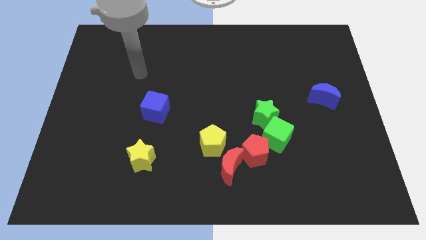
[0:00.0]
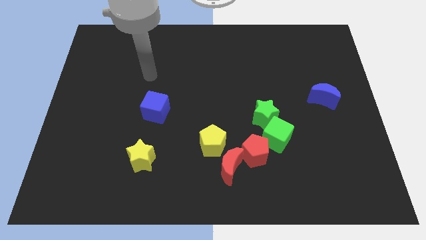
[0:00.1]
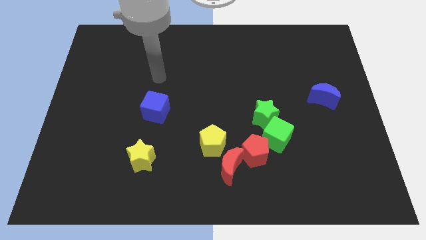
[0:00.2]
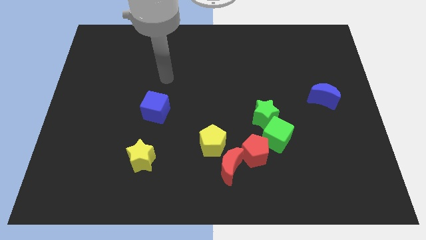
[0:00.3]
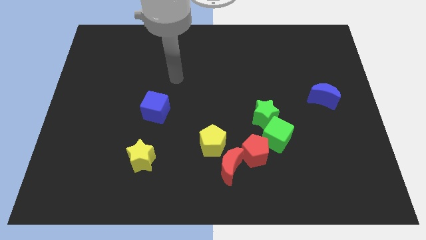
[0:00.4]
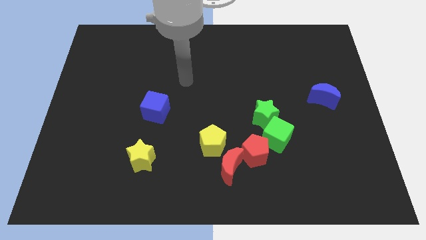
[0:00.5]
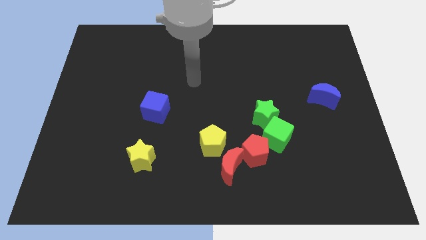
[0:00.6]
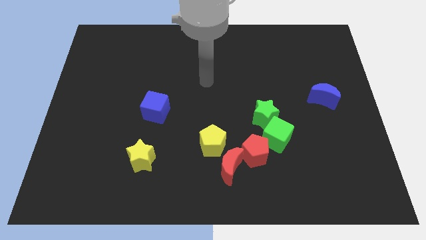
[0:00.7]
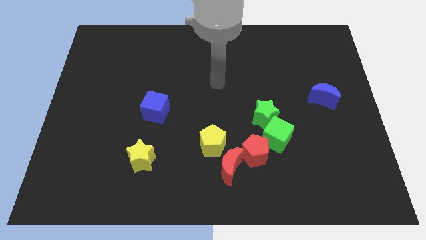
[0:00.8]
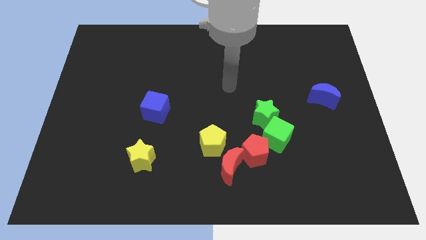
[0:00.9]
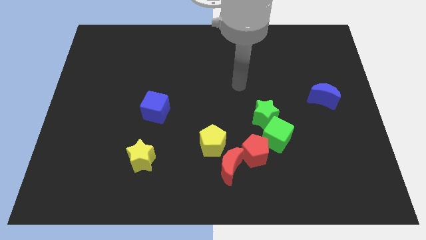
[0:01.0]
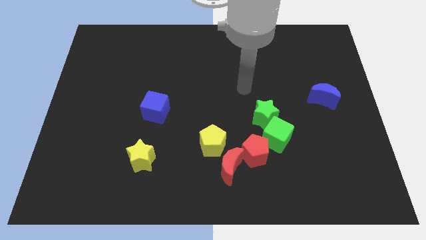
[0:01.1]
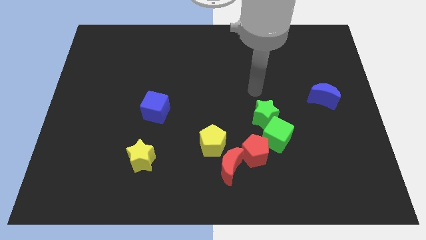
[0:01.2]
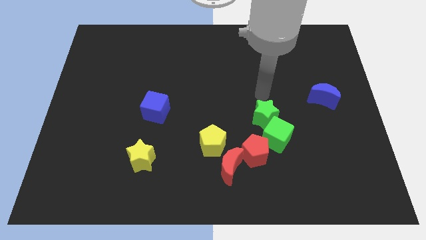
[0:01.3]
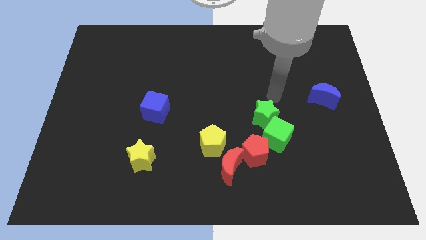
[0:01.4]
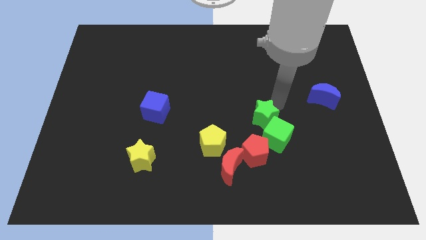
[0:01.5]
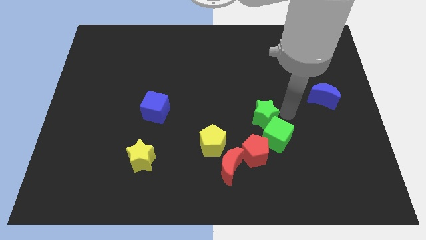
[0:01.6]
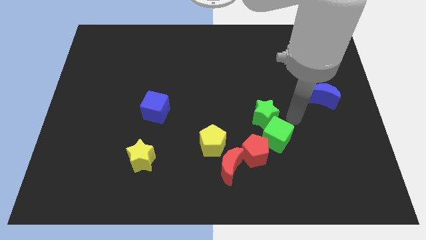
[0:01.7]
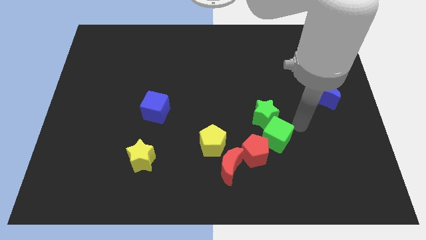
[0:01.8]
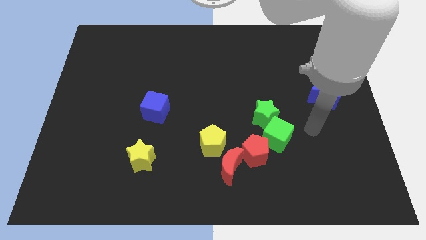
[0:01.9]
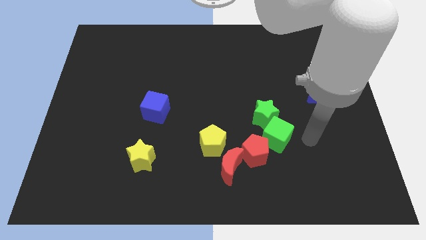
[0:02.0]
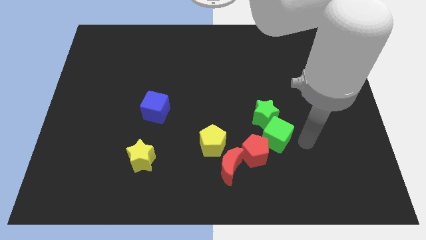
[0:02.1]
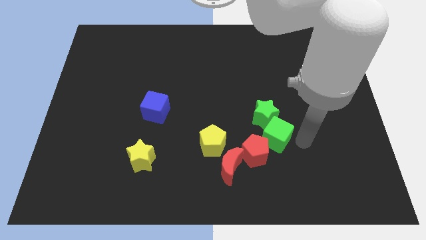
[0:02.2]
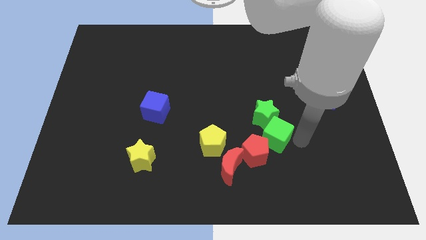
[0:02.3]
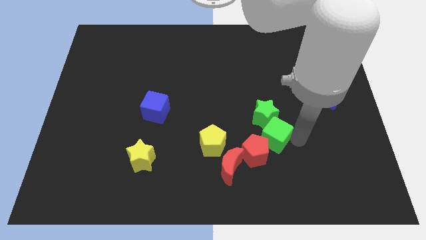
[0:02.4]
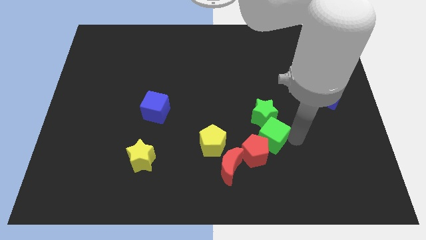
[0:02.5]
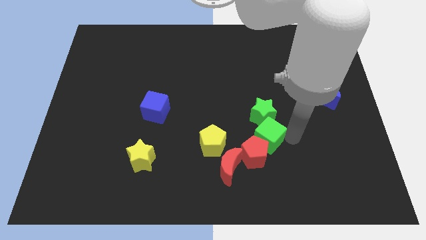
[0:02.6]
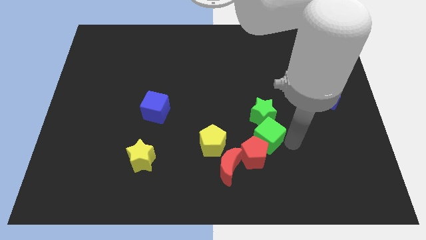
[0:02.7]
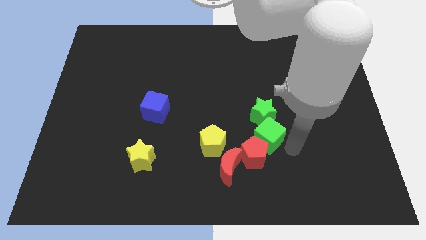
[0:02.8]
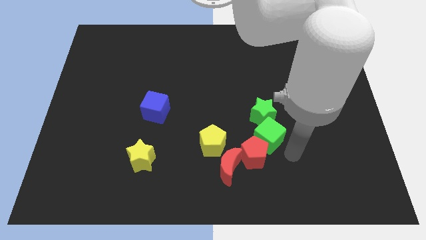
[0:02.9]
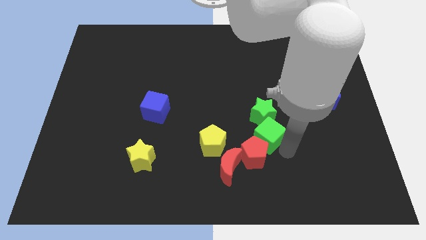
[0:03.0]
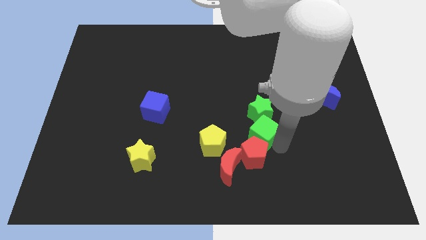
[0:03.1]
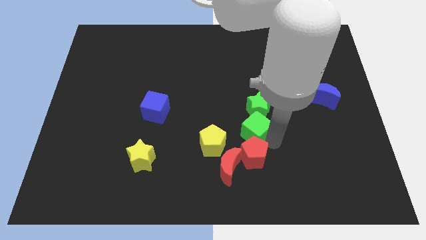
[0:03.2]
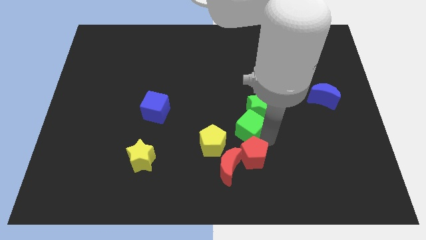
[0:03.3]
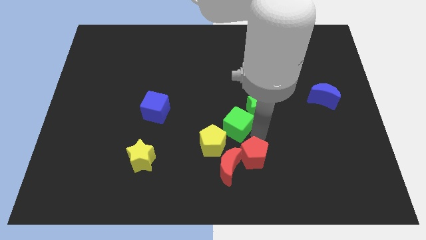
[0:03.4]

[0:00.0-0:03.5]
slightly move the green cube upwards and then left

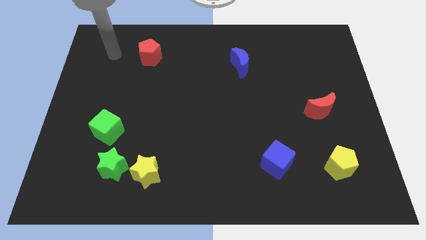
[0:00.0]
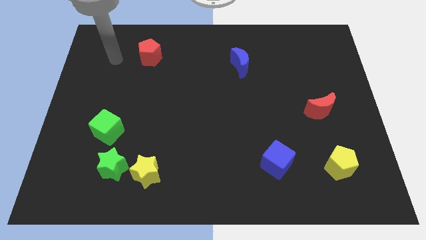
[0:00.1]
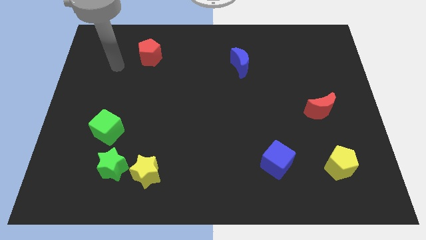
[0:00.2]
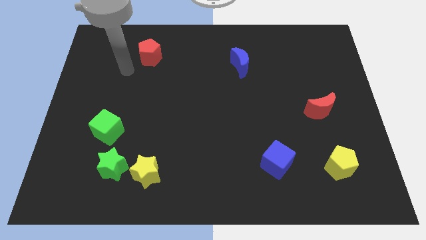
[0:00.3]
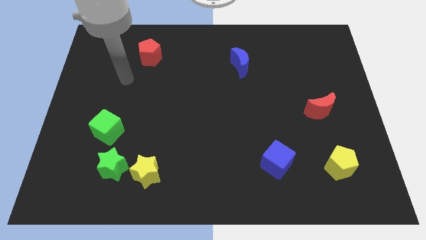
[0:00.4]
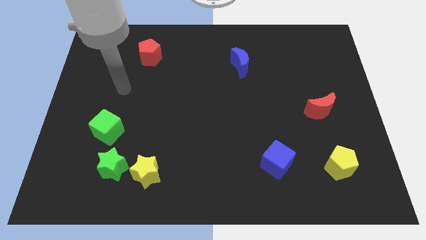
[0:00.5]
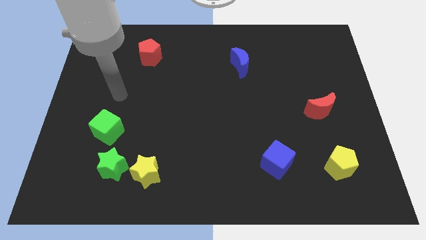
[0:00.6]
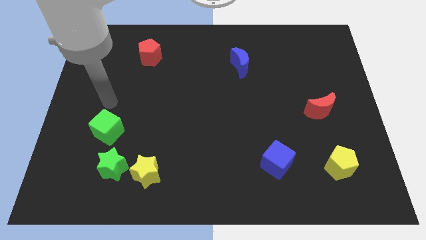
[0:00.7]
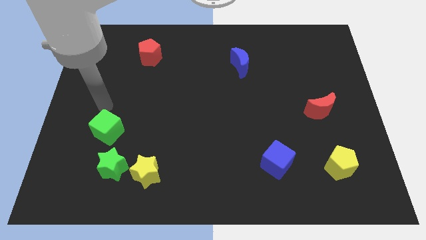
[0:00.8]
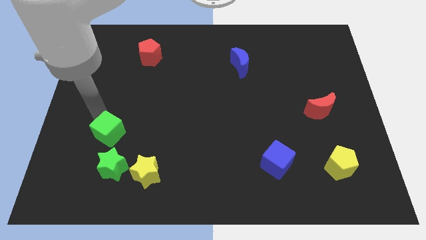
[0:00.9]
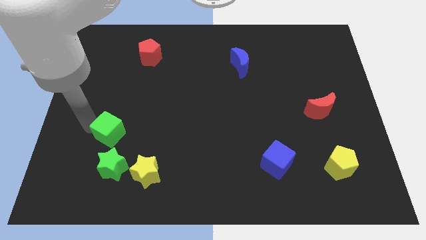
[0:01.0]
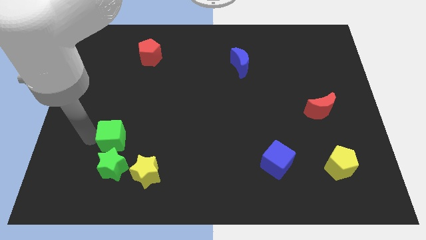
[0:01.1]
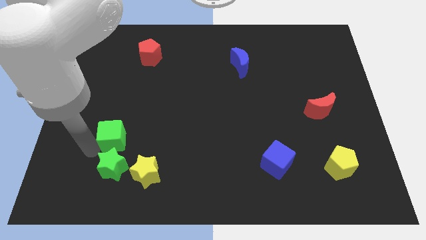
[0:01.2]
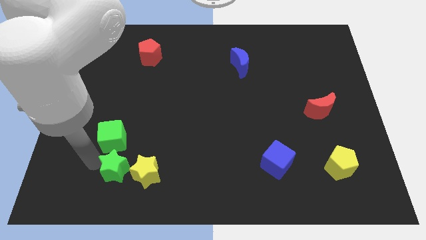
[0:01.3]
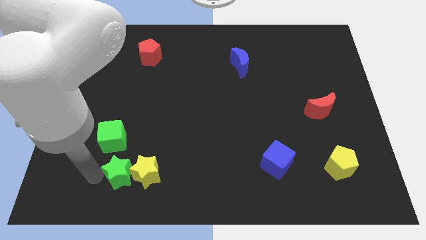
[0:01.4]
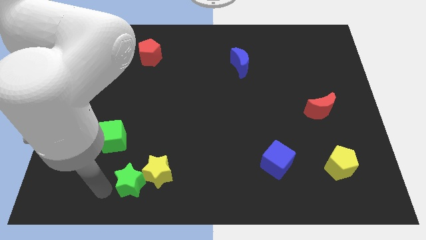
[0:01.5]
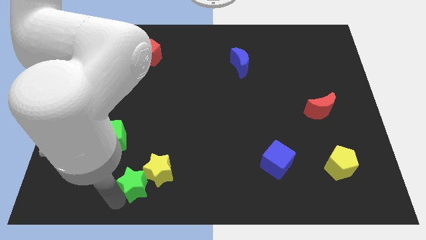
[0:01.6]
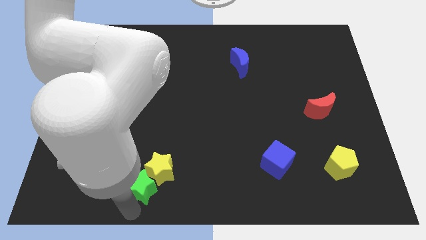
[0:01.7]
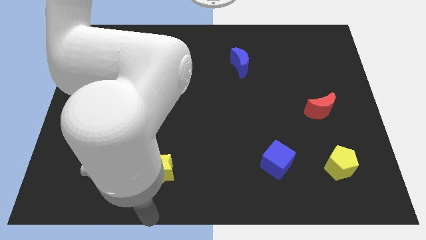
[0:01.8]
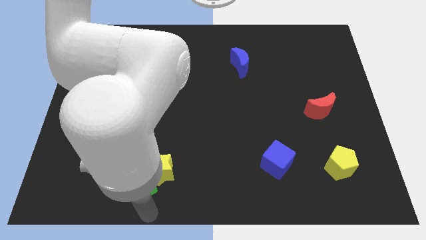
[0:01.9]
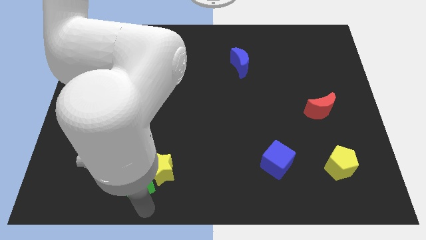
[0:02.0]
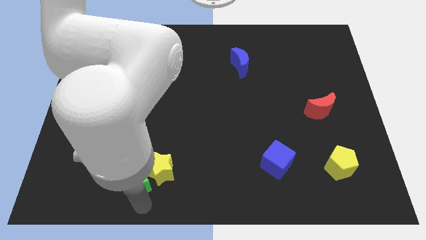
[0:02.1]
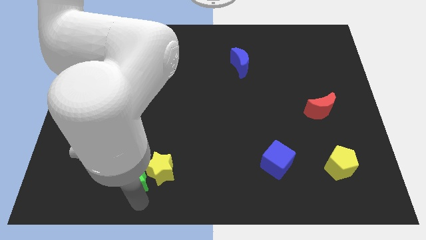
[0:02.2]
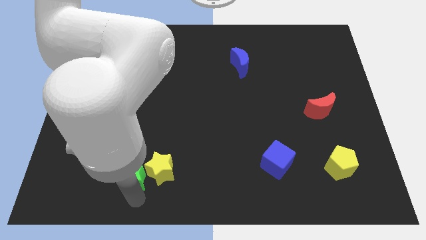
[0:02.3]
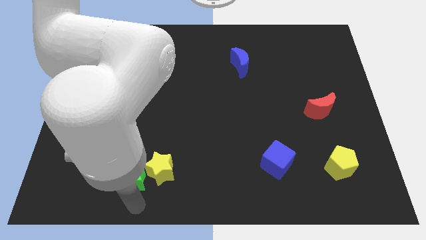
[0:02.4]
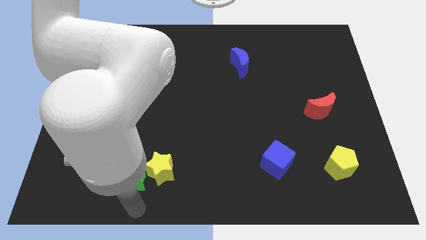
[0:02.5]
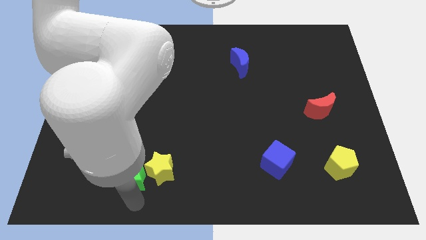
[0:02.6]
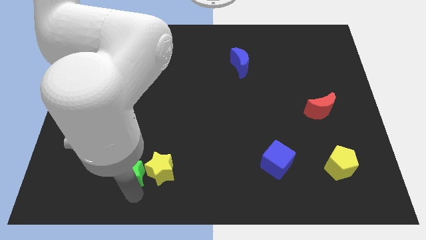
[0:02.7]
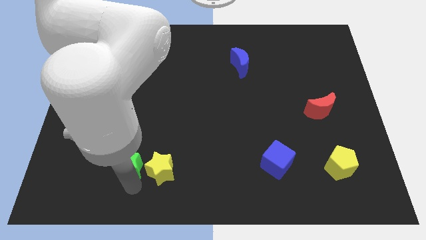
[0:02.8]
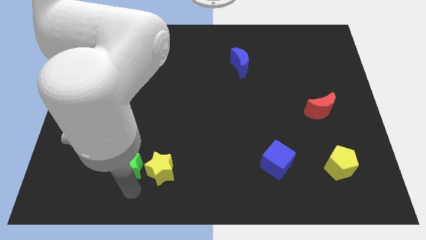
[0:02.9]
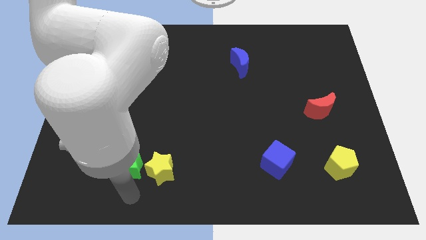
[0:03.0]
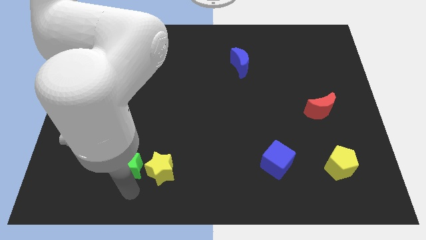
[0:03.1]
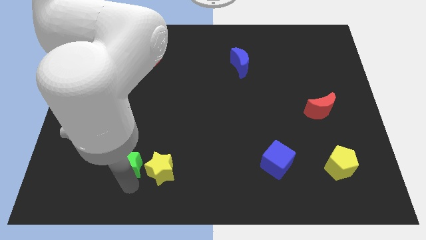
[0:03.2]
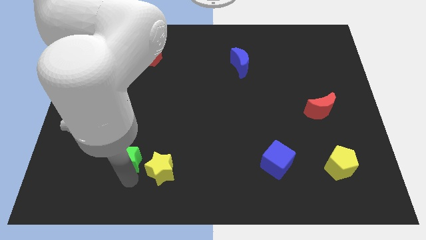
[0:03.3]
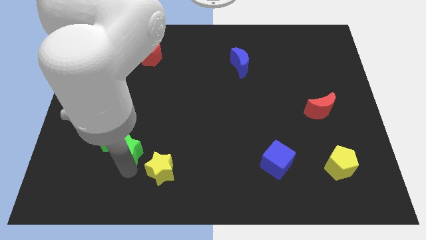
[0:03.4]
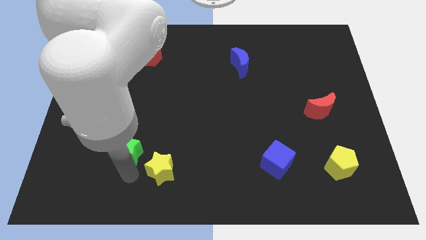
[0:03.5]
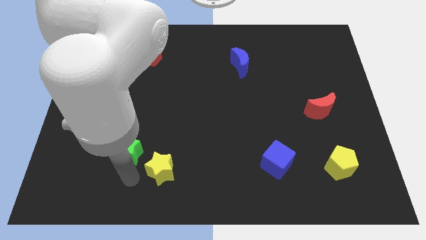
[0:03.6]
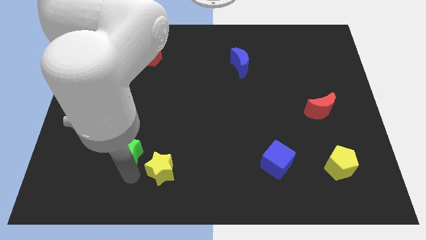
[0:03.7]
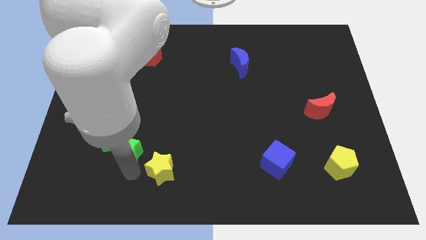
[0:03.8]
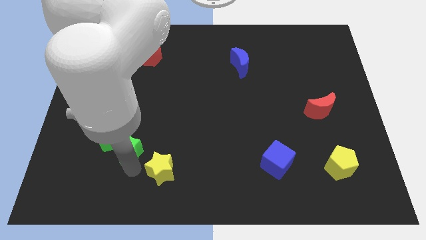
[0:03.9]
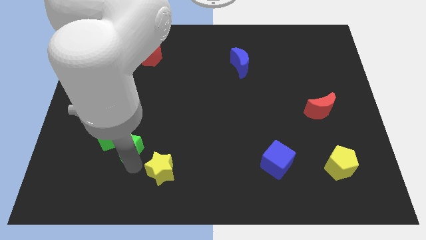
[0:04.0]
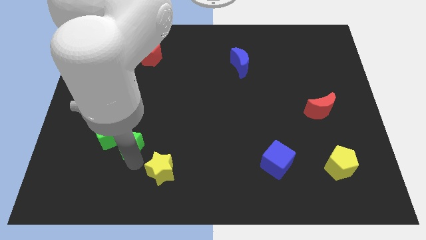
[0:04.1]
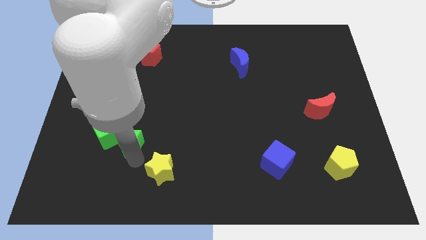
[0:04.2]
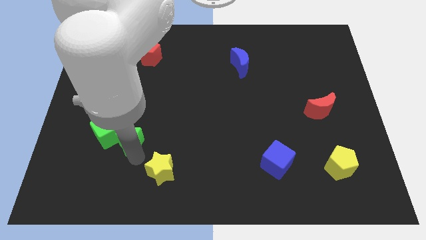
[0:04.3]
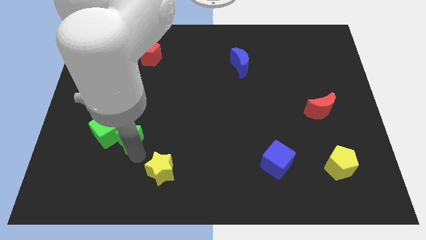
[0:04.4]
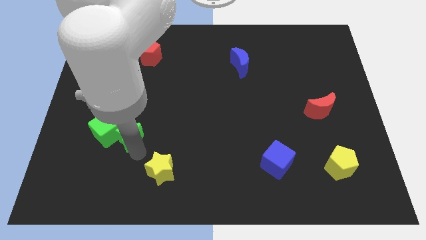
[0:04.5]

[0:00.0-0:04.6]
push the green star up a little bit

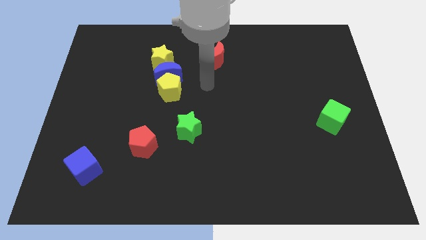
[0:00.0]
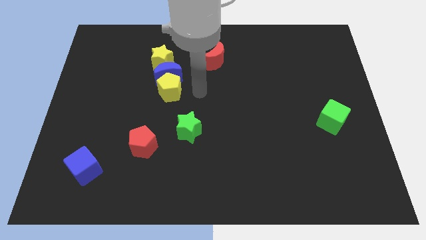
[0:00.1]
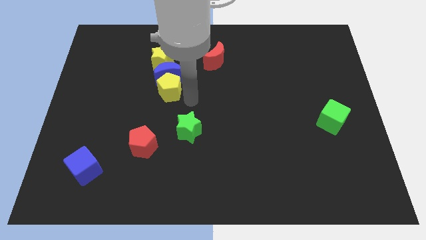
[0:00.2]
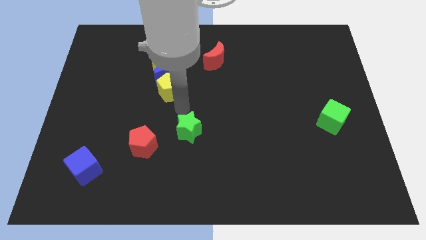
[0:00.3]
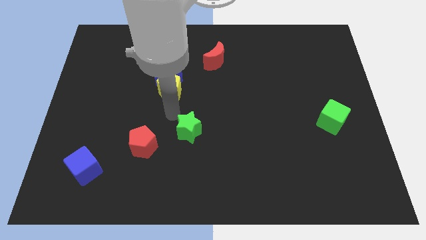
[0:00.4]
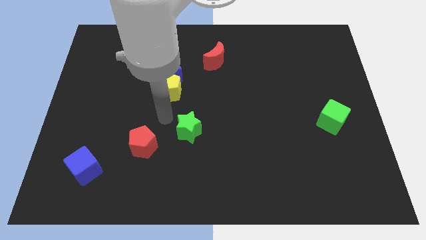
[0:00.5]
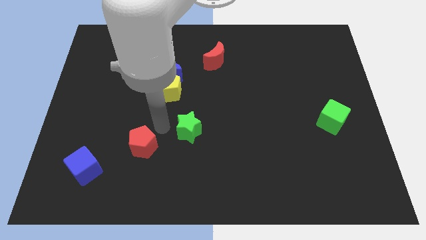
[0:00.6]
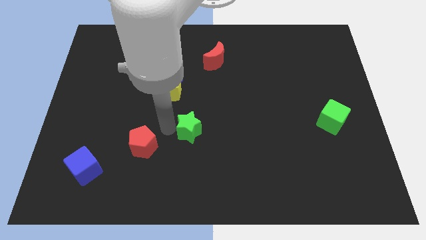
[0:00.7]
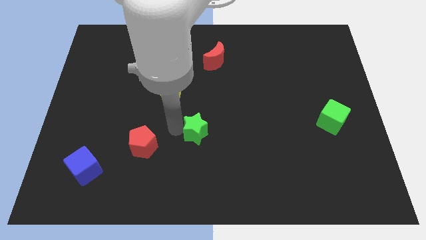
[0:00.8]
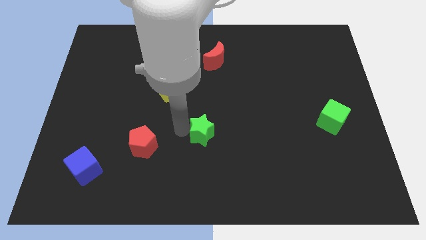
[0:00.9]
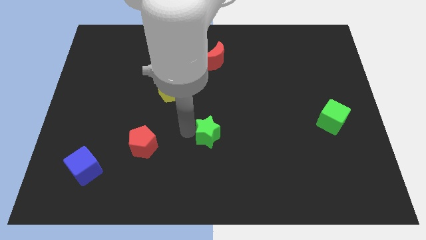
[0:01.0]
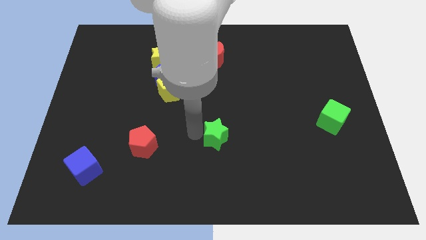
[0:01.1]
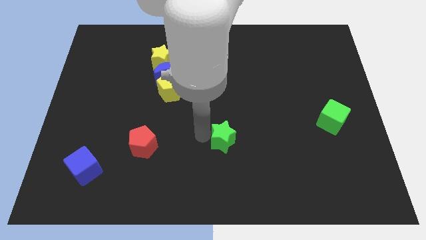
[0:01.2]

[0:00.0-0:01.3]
slide the green star a little right
